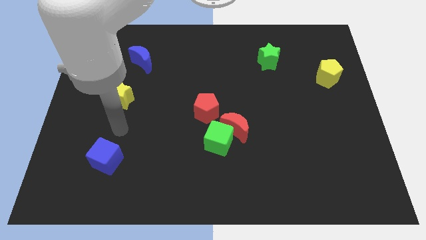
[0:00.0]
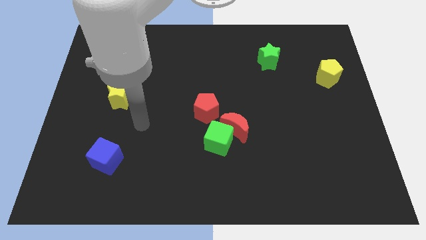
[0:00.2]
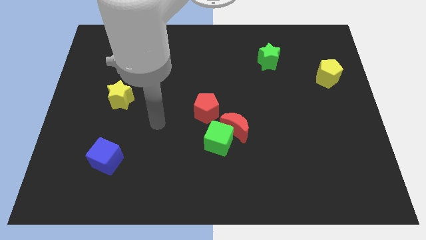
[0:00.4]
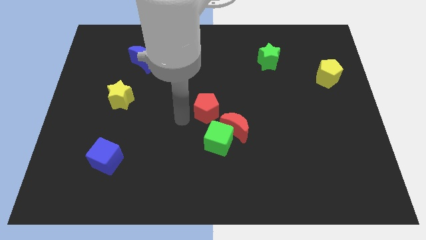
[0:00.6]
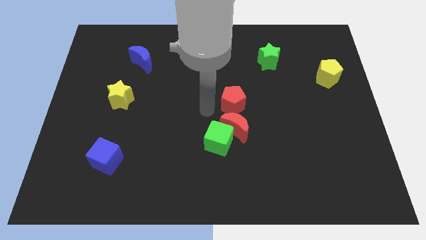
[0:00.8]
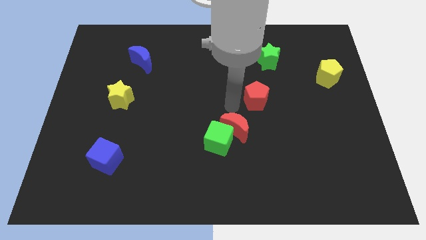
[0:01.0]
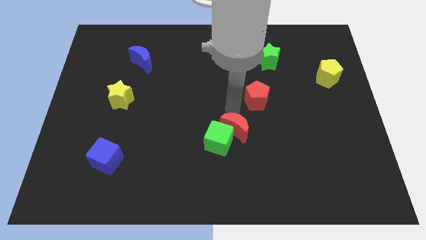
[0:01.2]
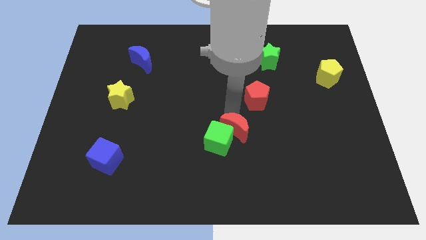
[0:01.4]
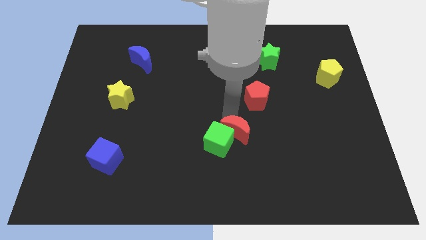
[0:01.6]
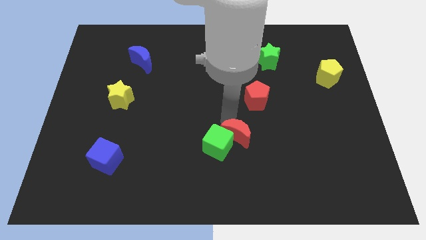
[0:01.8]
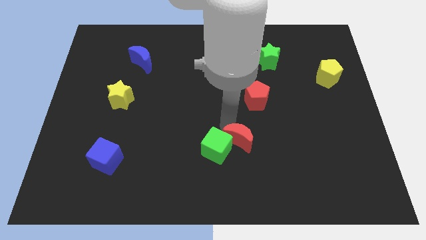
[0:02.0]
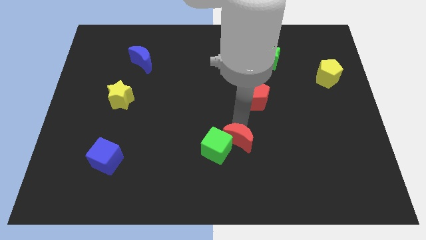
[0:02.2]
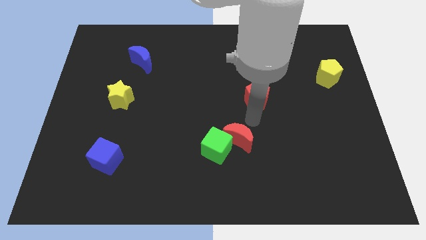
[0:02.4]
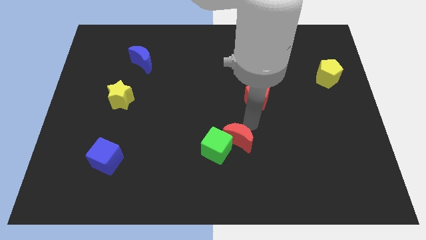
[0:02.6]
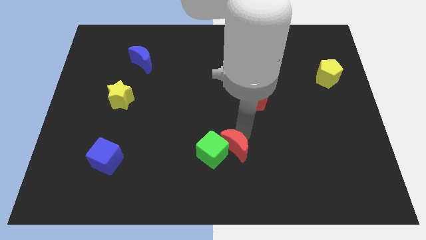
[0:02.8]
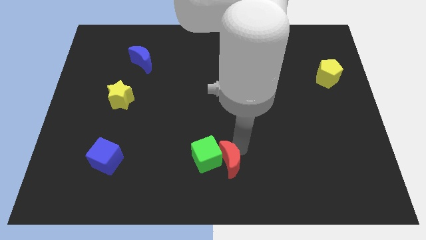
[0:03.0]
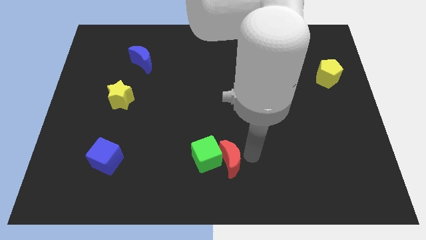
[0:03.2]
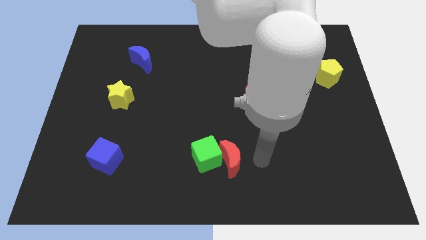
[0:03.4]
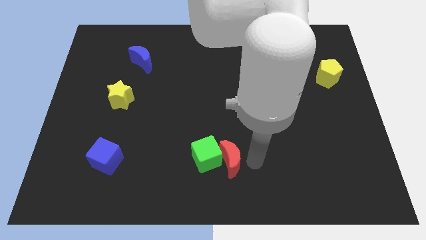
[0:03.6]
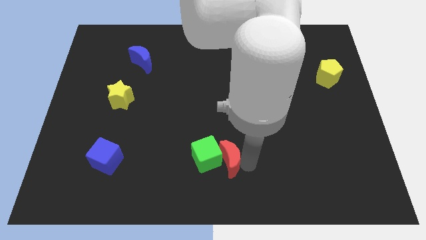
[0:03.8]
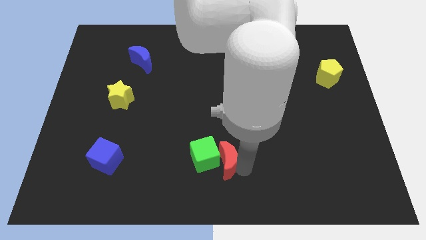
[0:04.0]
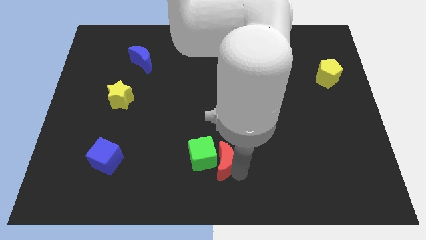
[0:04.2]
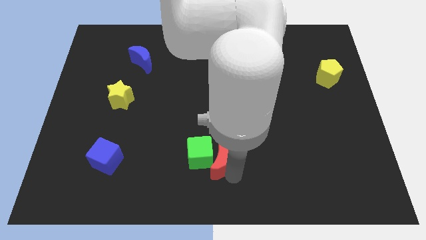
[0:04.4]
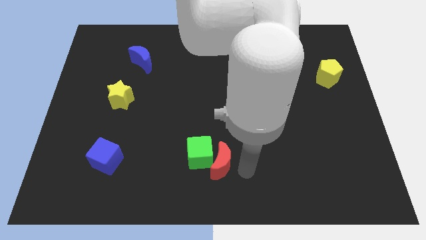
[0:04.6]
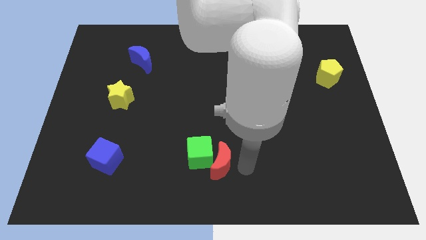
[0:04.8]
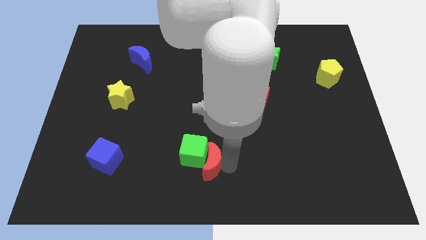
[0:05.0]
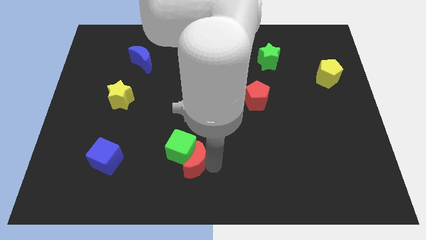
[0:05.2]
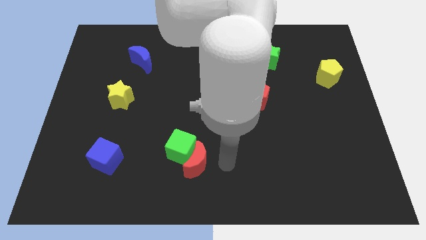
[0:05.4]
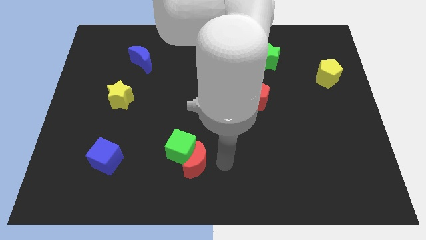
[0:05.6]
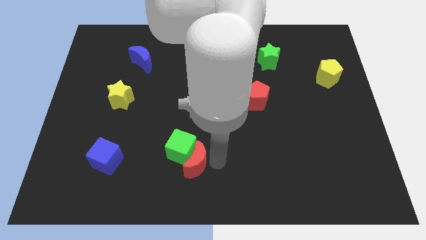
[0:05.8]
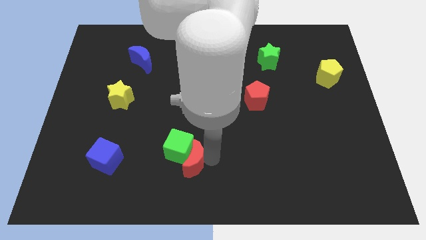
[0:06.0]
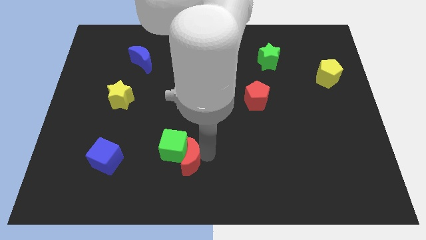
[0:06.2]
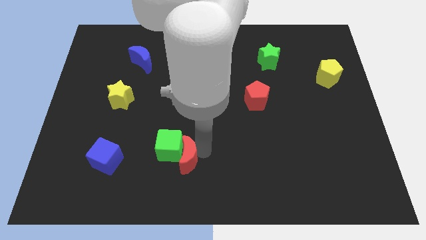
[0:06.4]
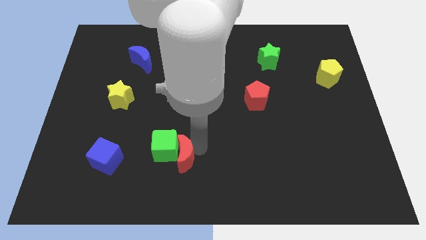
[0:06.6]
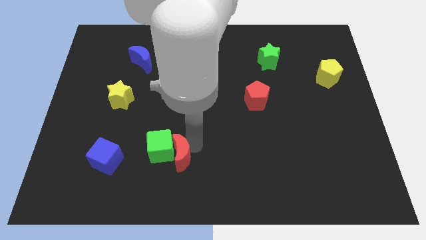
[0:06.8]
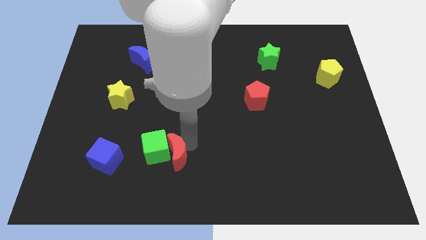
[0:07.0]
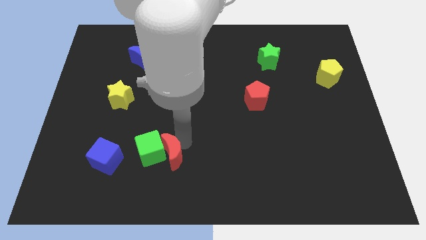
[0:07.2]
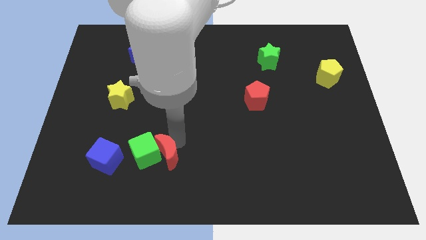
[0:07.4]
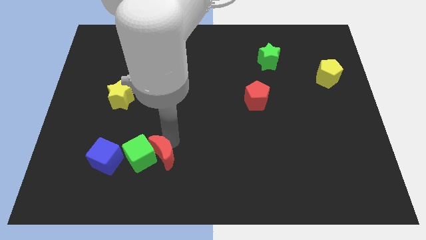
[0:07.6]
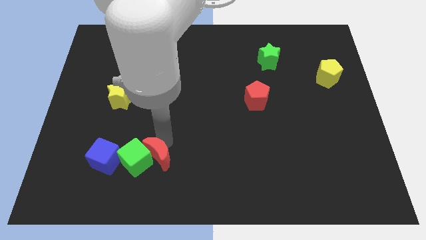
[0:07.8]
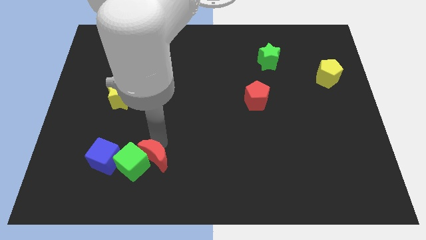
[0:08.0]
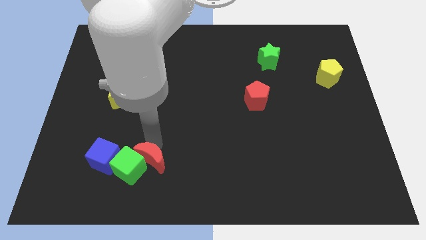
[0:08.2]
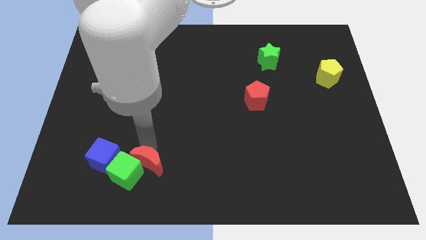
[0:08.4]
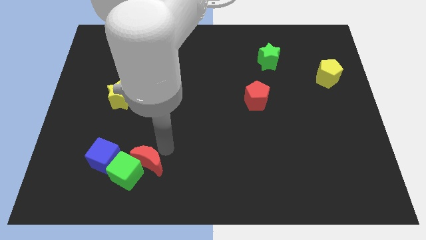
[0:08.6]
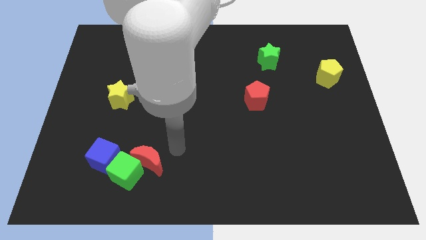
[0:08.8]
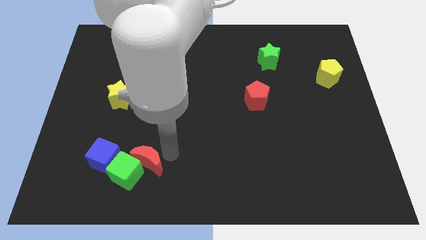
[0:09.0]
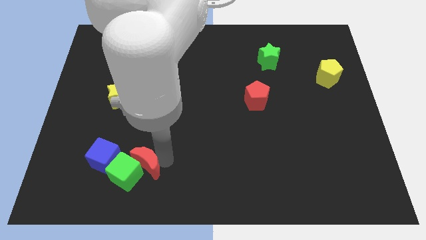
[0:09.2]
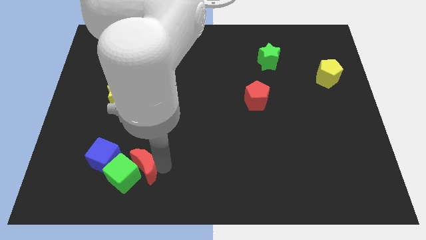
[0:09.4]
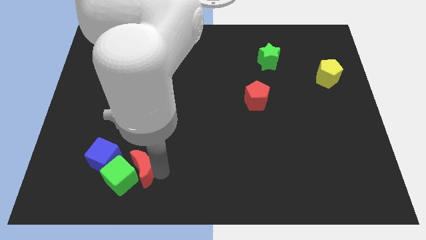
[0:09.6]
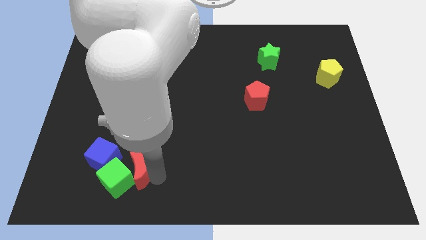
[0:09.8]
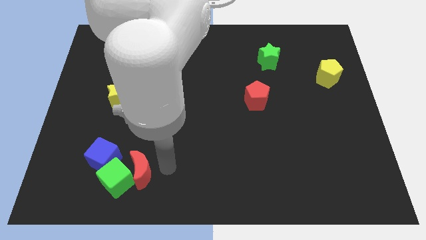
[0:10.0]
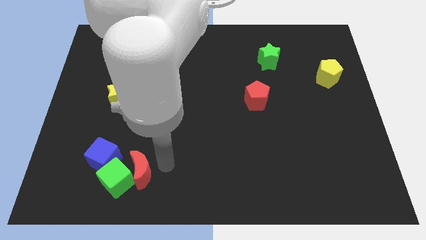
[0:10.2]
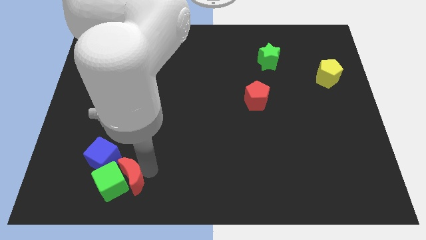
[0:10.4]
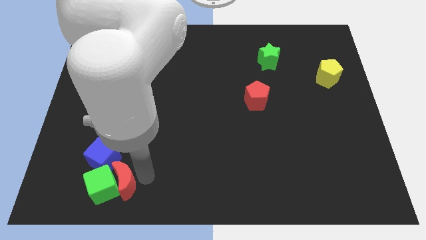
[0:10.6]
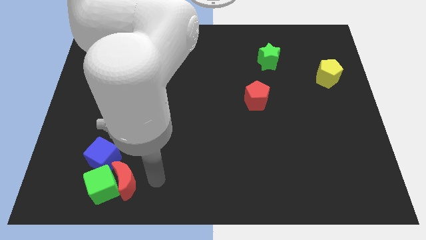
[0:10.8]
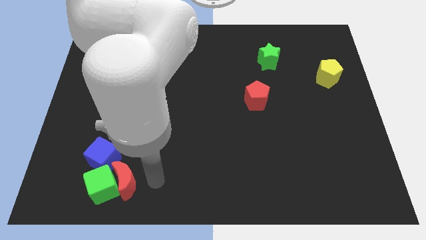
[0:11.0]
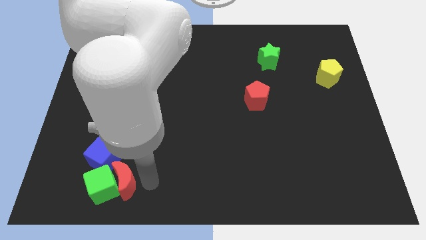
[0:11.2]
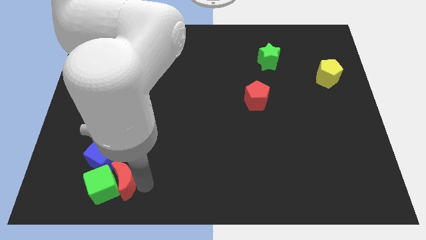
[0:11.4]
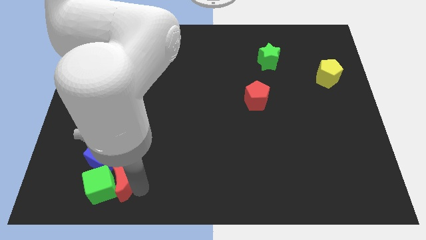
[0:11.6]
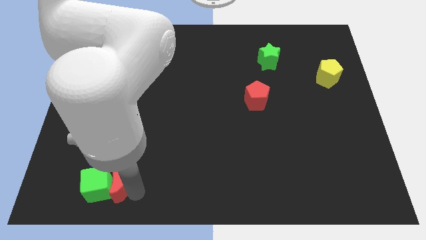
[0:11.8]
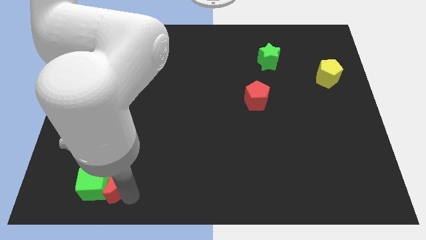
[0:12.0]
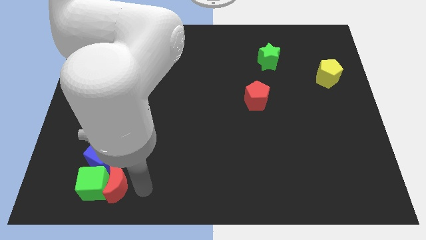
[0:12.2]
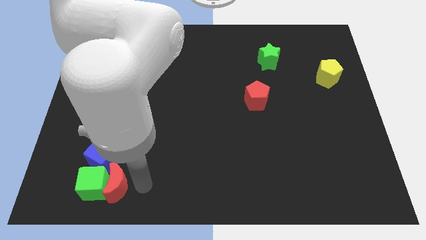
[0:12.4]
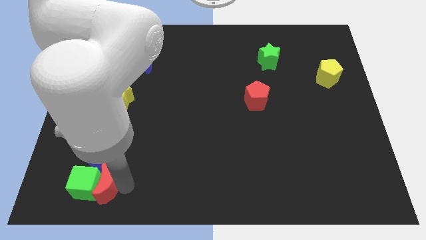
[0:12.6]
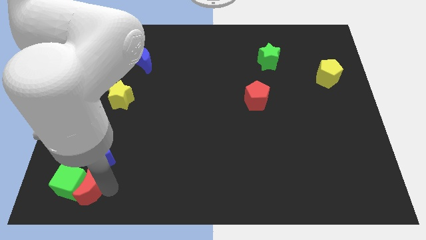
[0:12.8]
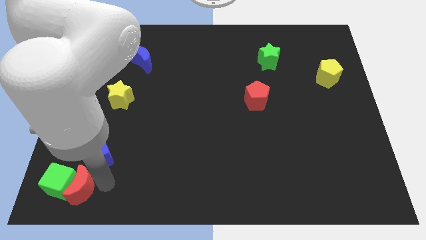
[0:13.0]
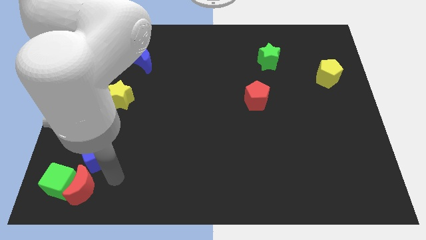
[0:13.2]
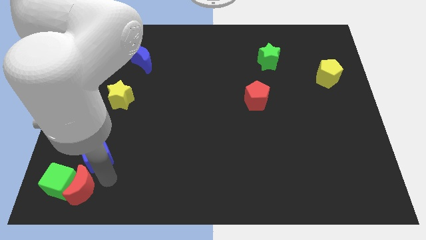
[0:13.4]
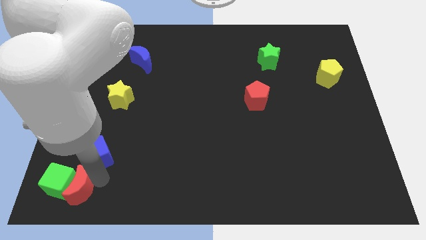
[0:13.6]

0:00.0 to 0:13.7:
put the red moon to the lower left corner
